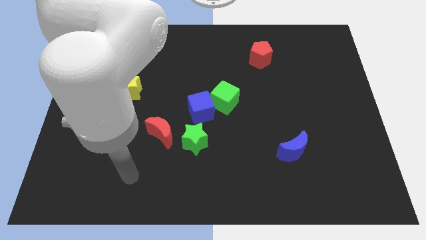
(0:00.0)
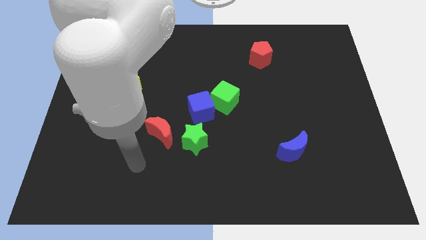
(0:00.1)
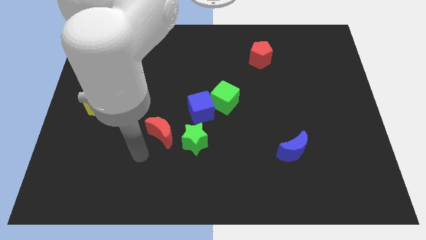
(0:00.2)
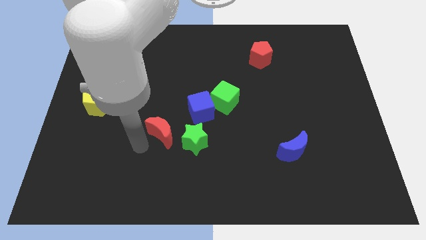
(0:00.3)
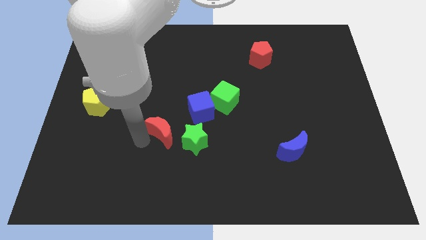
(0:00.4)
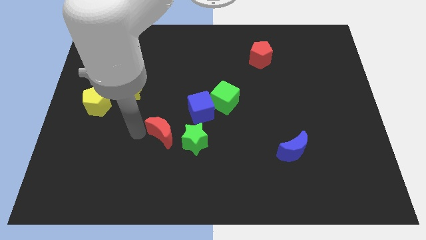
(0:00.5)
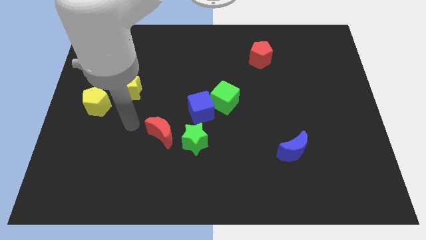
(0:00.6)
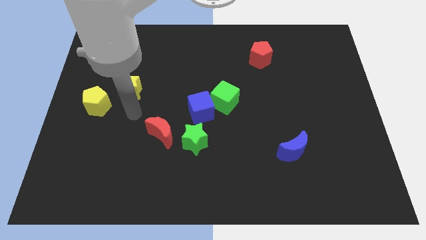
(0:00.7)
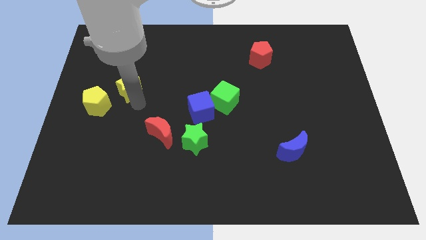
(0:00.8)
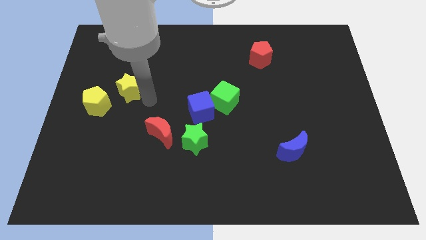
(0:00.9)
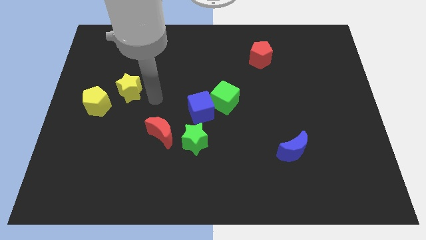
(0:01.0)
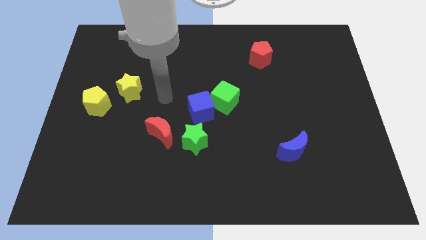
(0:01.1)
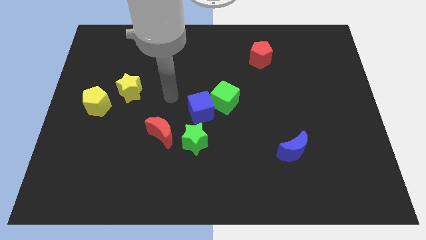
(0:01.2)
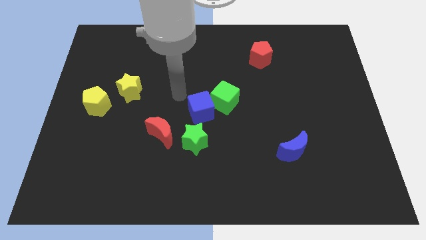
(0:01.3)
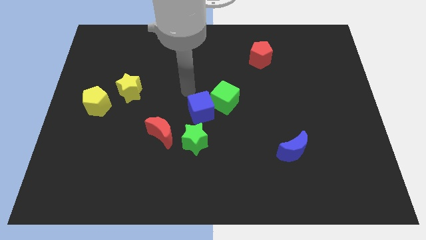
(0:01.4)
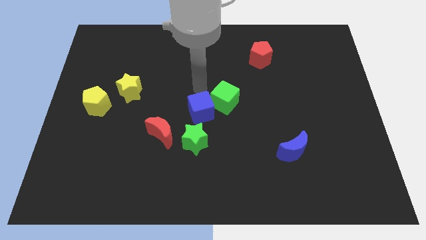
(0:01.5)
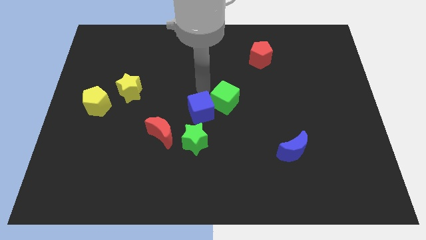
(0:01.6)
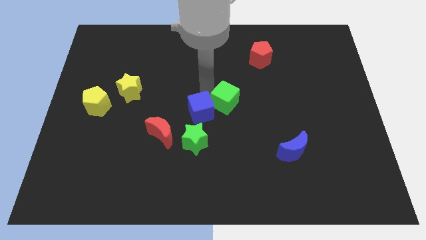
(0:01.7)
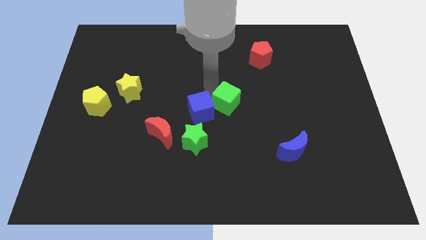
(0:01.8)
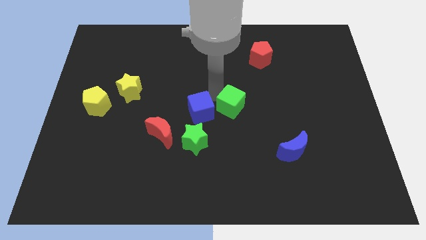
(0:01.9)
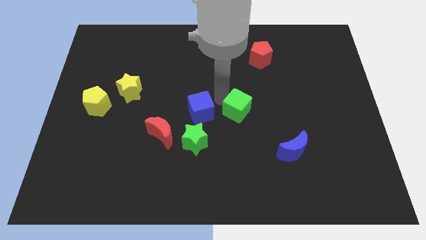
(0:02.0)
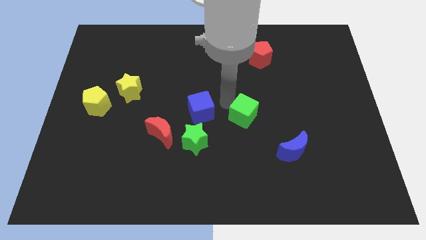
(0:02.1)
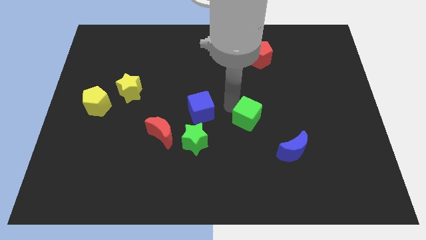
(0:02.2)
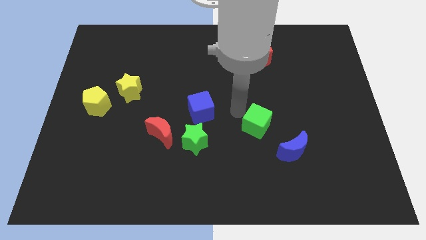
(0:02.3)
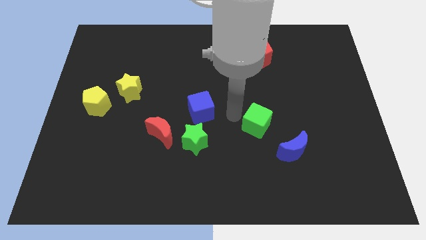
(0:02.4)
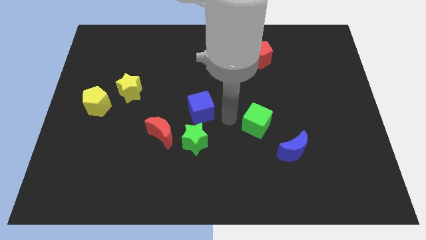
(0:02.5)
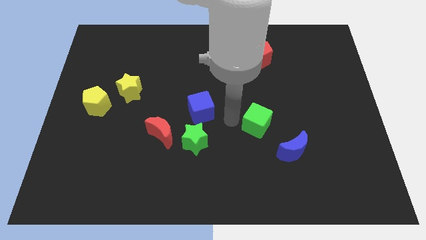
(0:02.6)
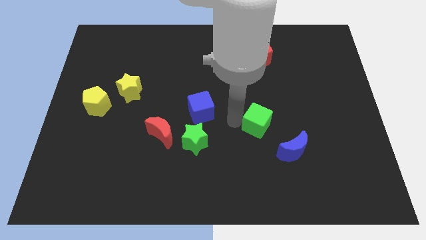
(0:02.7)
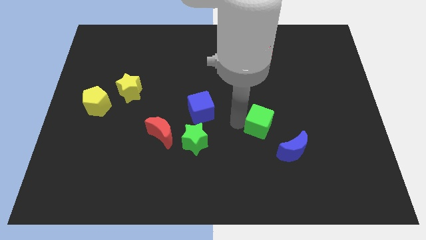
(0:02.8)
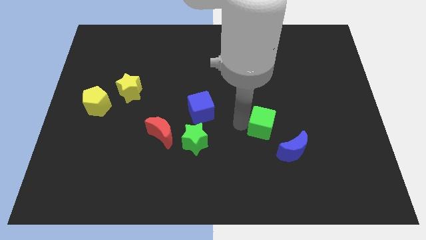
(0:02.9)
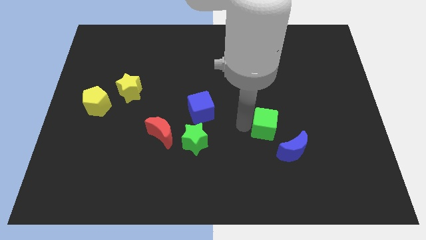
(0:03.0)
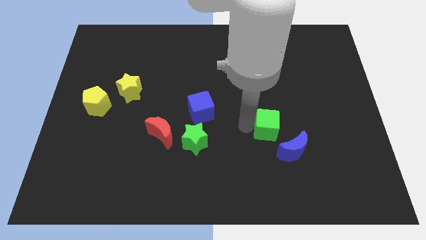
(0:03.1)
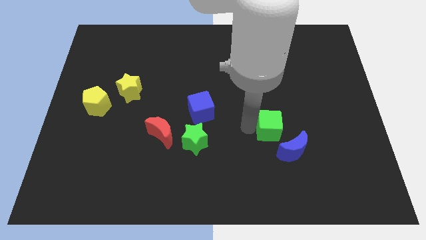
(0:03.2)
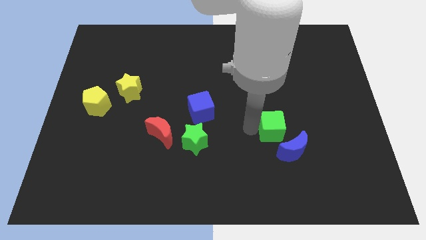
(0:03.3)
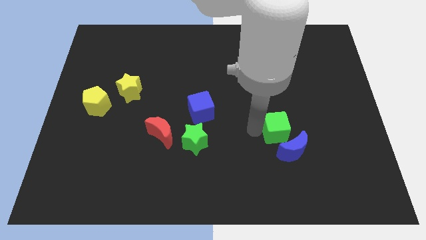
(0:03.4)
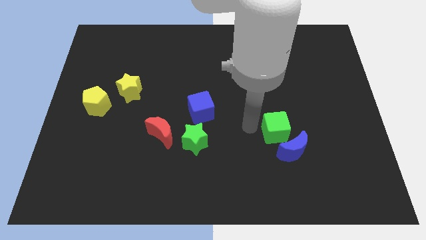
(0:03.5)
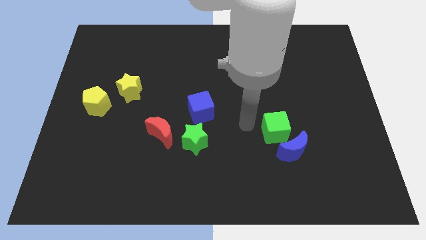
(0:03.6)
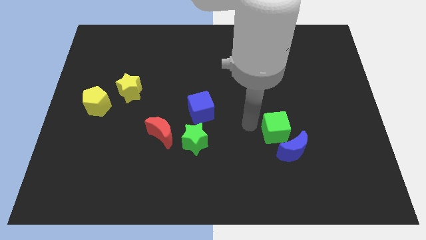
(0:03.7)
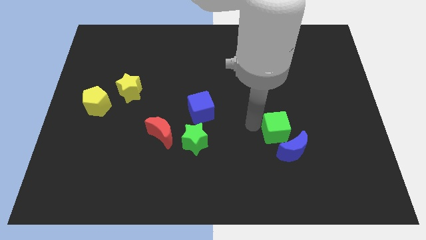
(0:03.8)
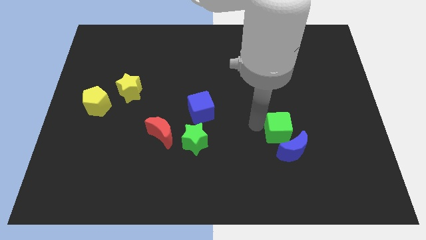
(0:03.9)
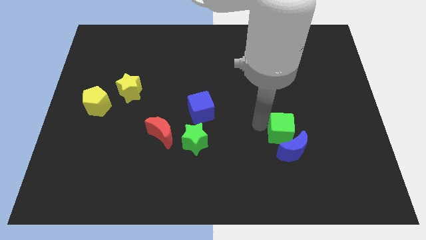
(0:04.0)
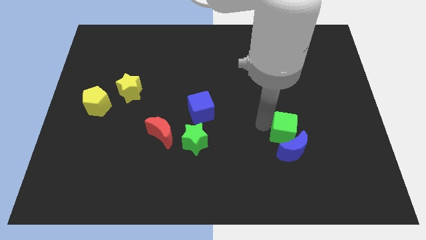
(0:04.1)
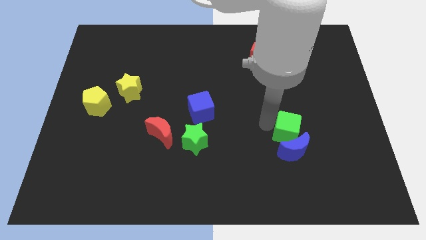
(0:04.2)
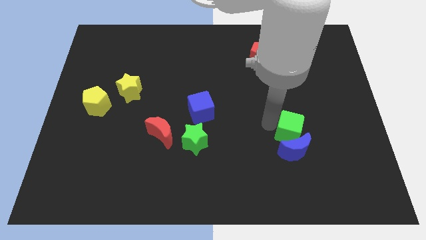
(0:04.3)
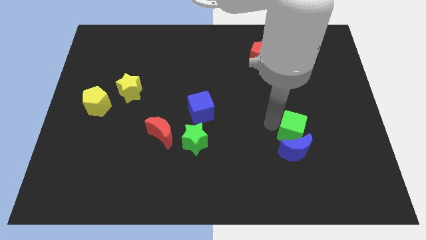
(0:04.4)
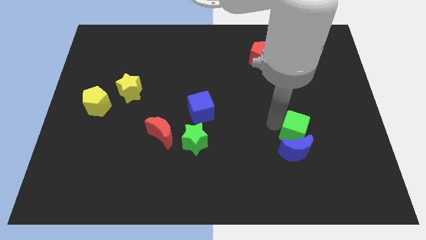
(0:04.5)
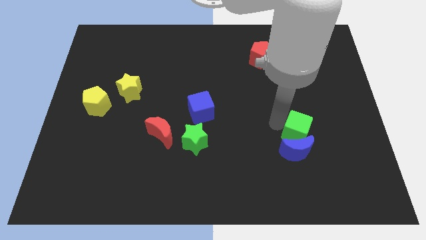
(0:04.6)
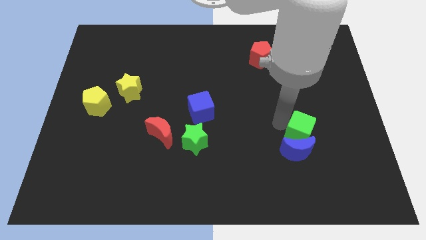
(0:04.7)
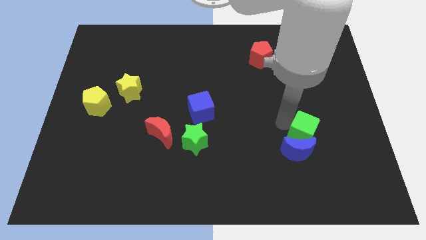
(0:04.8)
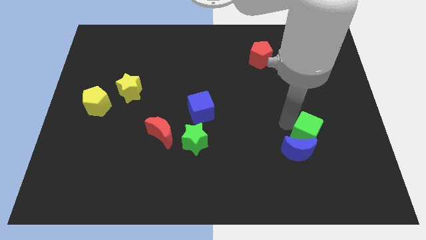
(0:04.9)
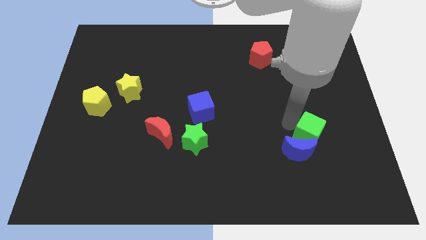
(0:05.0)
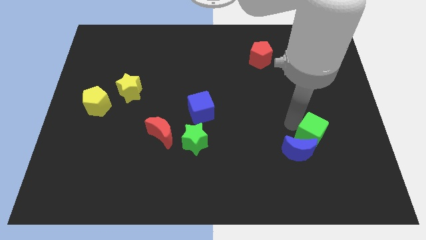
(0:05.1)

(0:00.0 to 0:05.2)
slide the green cube to the right side of the blue moon

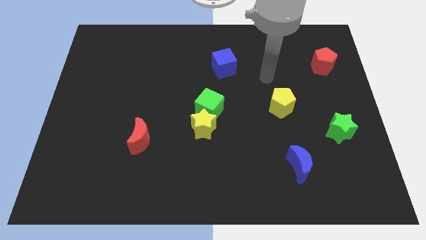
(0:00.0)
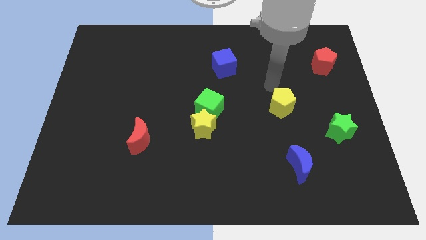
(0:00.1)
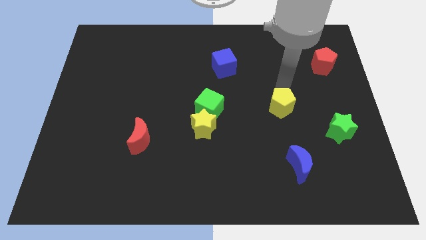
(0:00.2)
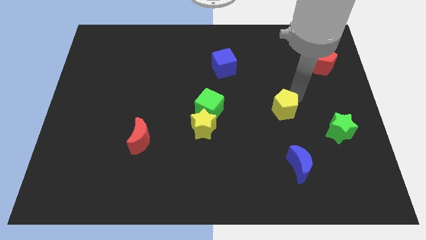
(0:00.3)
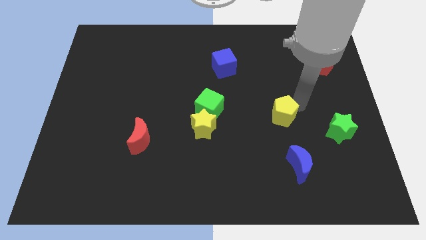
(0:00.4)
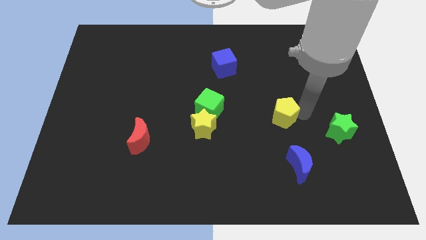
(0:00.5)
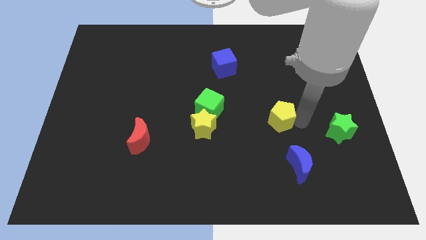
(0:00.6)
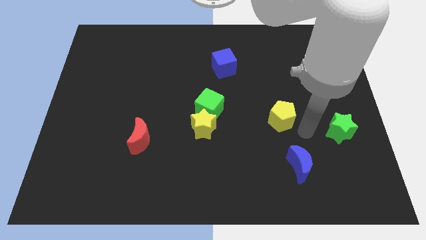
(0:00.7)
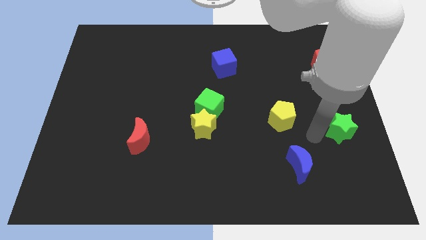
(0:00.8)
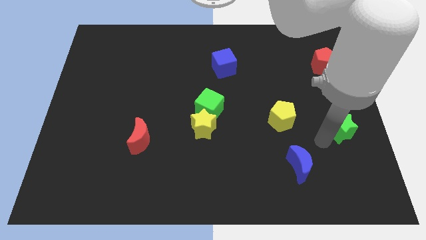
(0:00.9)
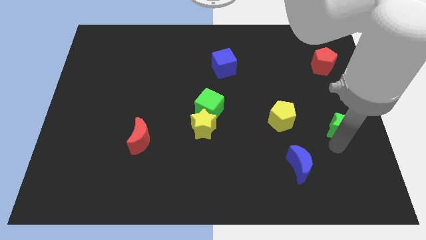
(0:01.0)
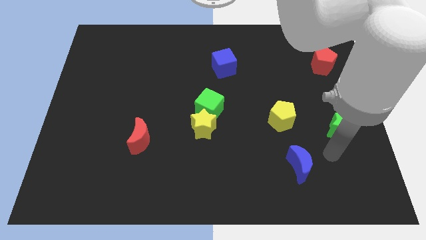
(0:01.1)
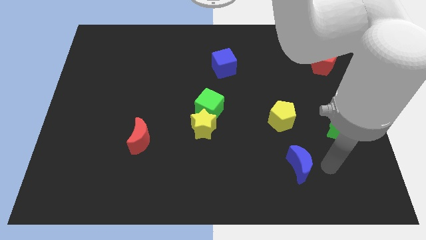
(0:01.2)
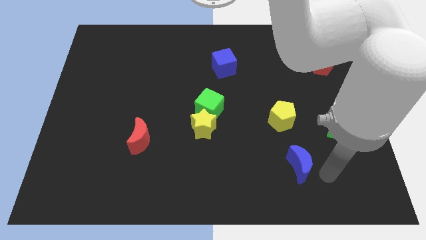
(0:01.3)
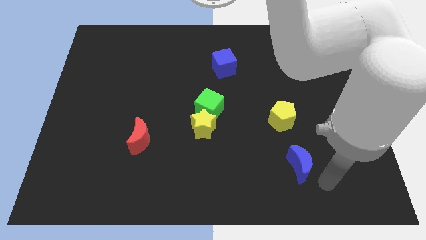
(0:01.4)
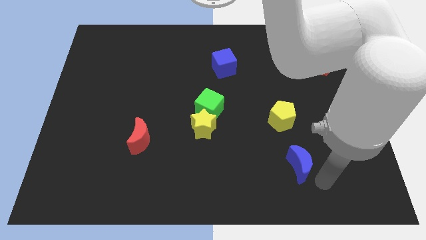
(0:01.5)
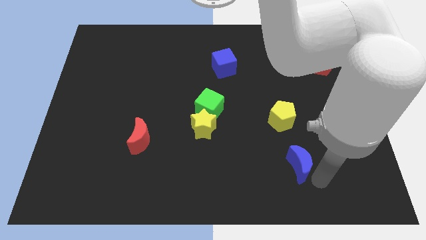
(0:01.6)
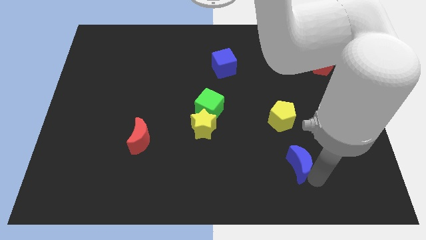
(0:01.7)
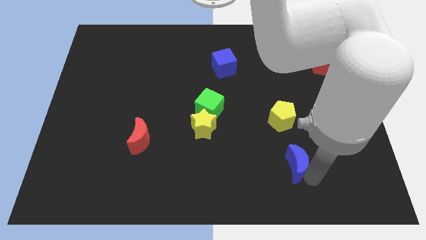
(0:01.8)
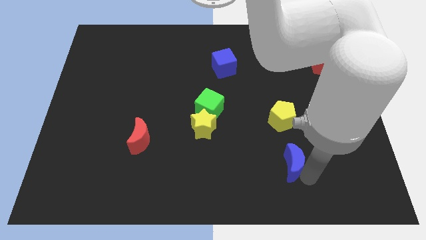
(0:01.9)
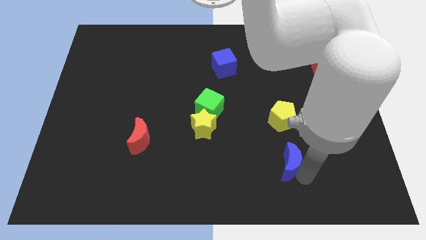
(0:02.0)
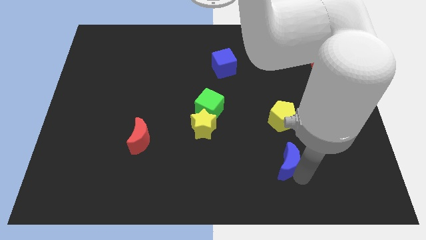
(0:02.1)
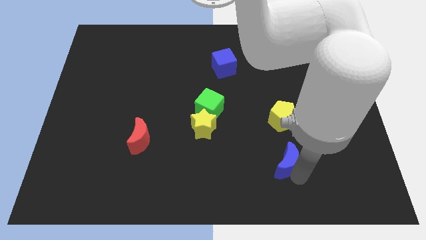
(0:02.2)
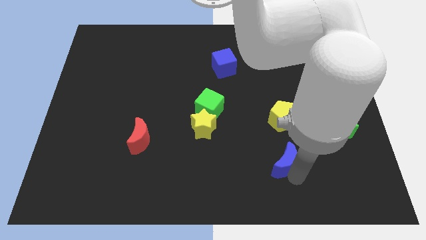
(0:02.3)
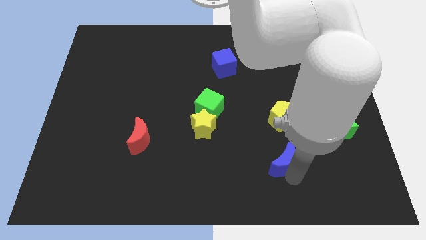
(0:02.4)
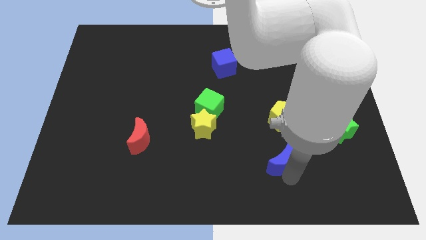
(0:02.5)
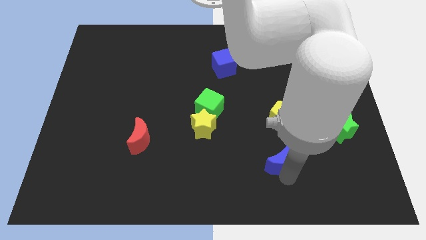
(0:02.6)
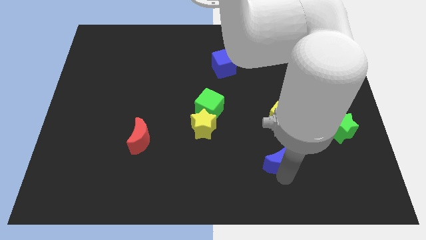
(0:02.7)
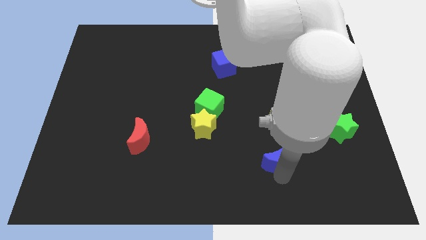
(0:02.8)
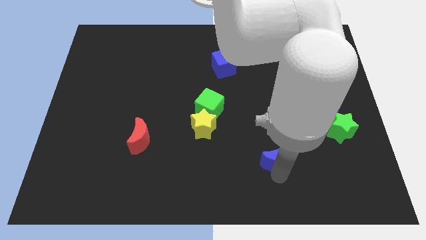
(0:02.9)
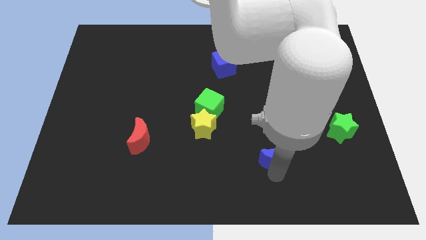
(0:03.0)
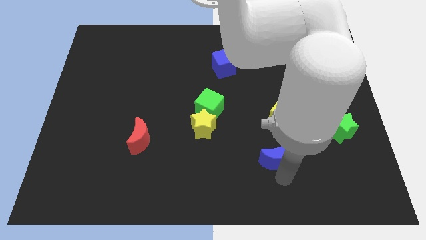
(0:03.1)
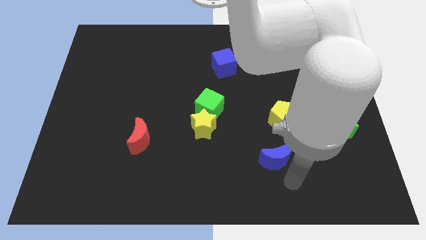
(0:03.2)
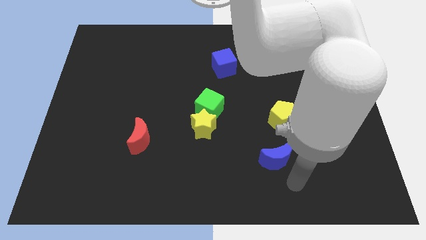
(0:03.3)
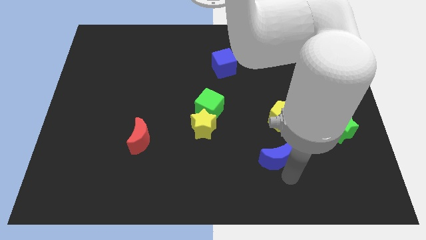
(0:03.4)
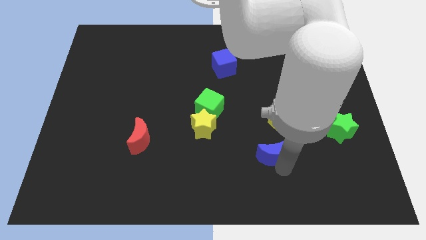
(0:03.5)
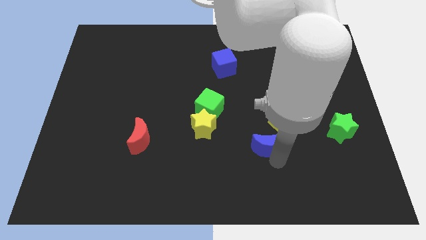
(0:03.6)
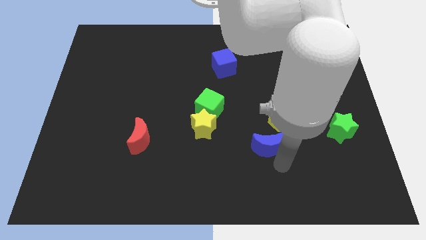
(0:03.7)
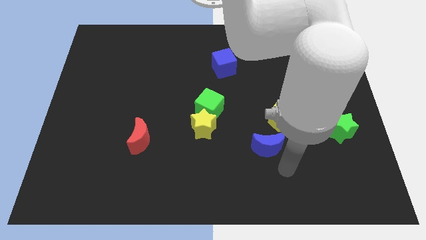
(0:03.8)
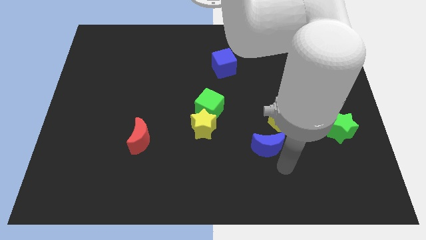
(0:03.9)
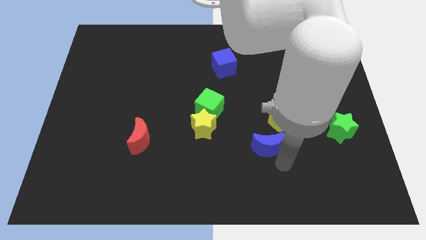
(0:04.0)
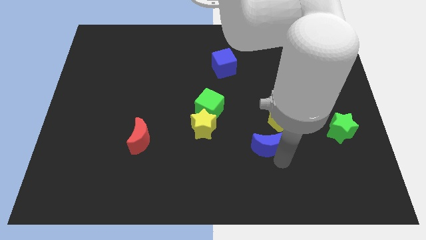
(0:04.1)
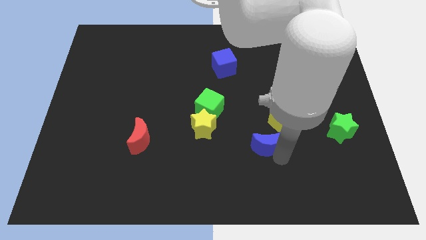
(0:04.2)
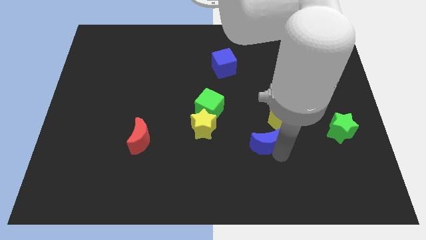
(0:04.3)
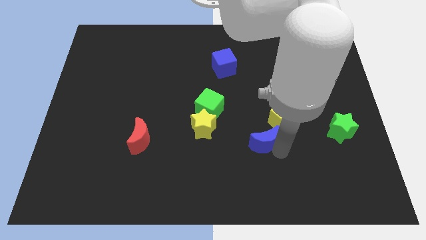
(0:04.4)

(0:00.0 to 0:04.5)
put the blue moon to the right side of the yellow star
